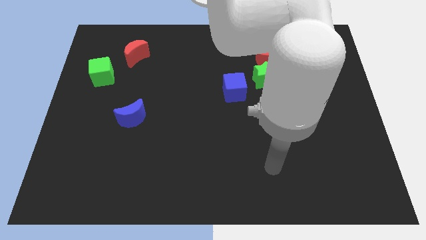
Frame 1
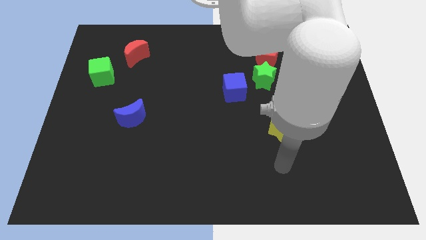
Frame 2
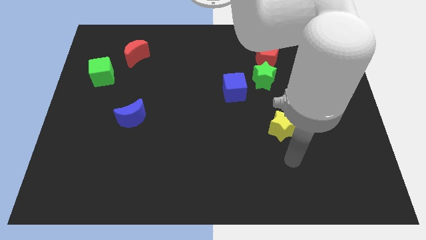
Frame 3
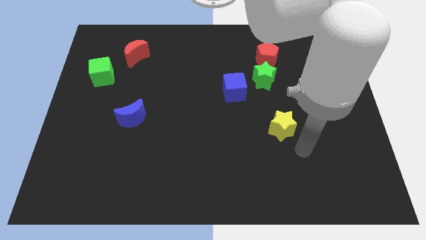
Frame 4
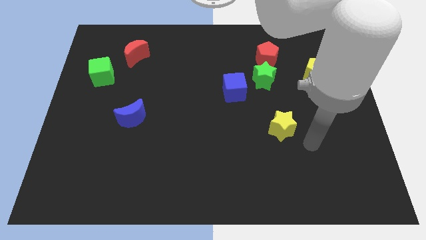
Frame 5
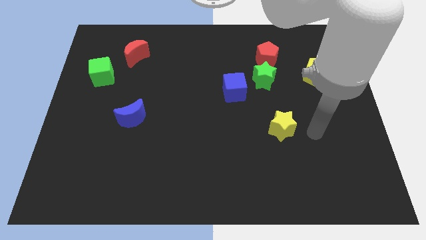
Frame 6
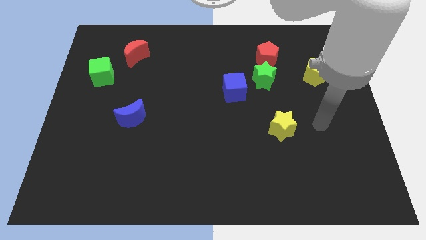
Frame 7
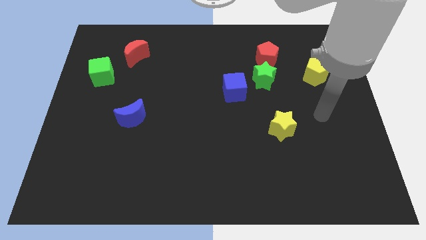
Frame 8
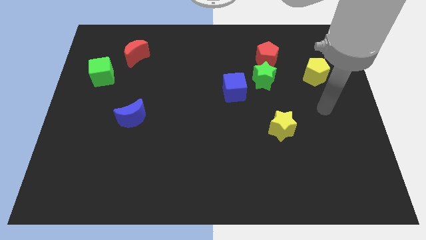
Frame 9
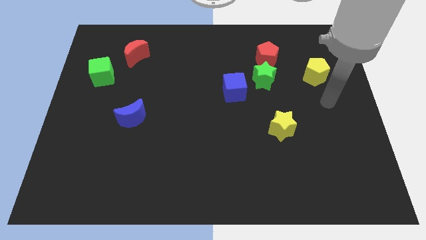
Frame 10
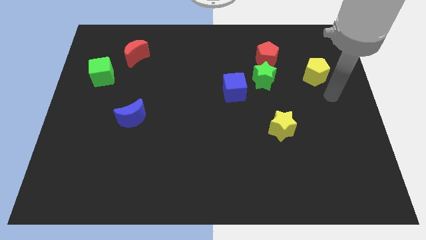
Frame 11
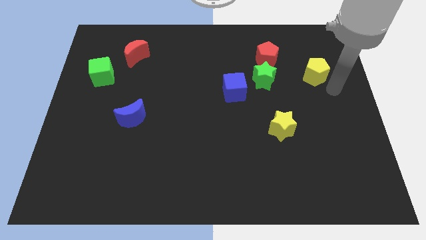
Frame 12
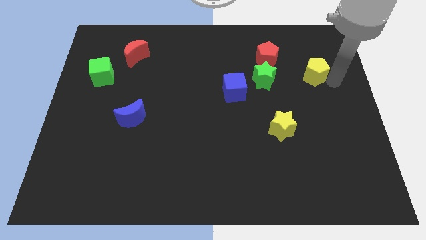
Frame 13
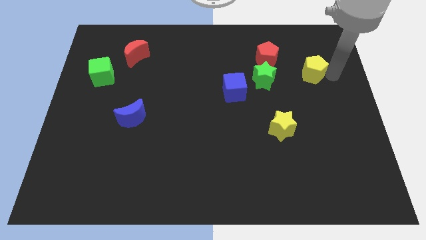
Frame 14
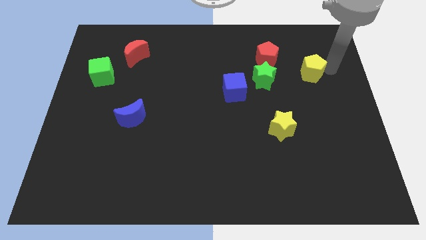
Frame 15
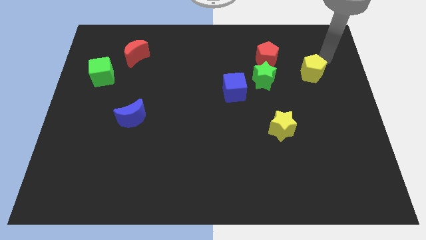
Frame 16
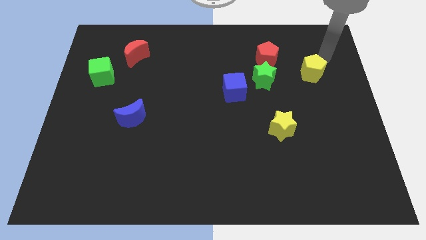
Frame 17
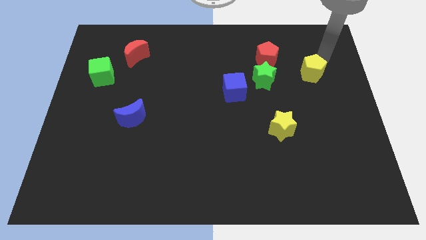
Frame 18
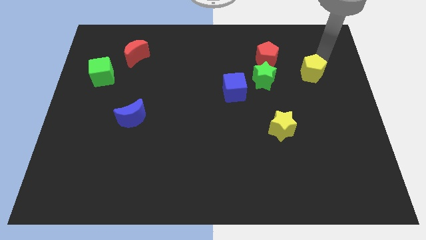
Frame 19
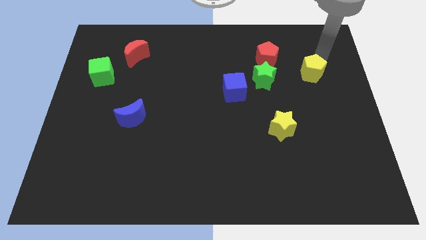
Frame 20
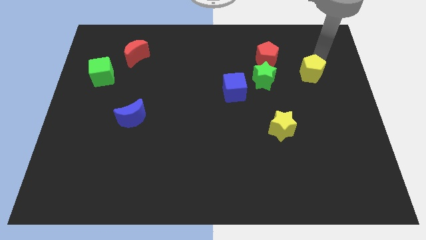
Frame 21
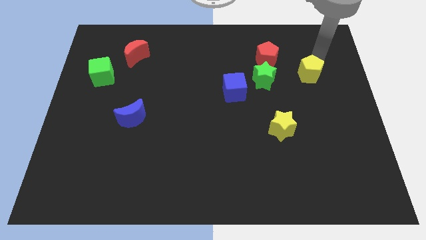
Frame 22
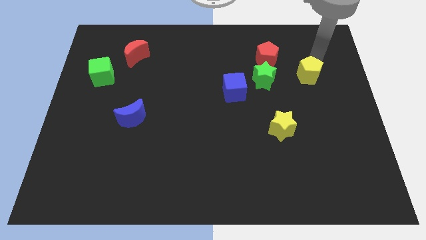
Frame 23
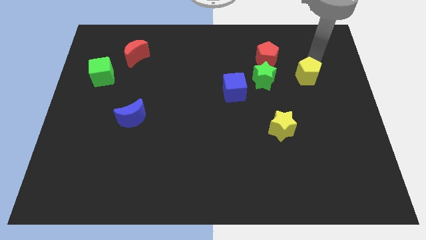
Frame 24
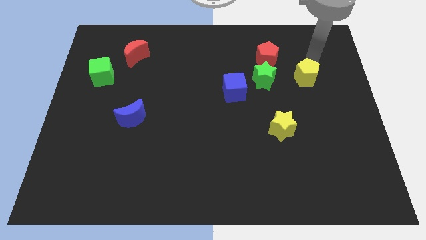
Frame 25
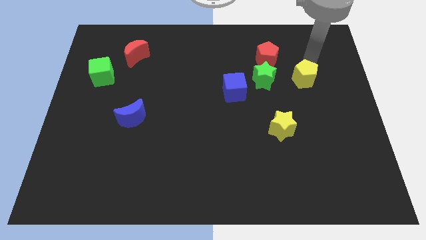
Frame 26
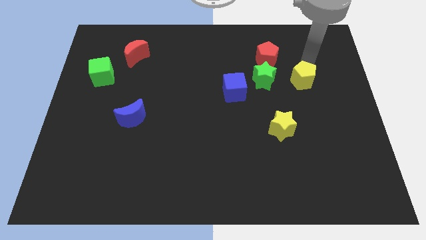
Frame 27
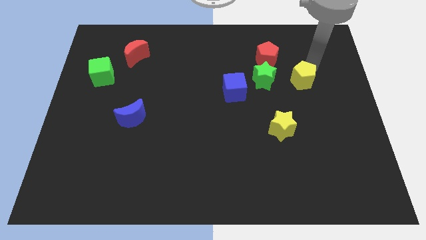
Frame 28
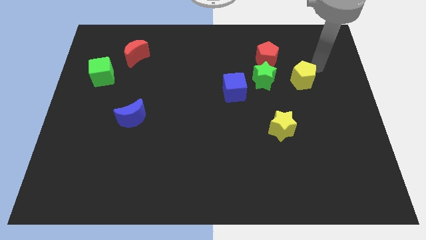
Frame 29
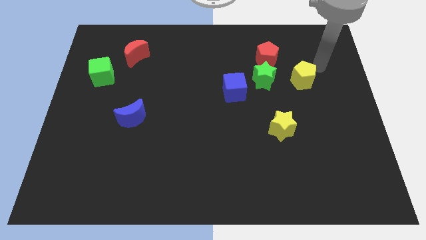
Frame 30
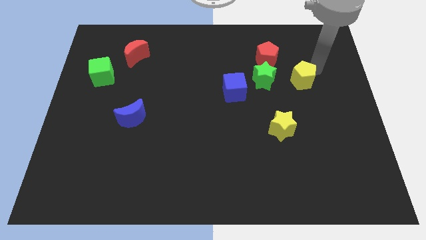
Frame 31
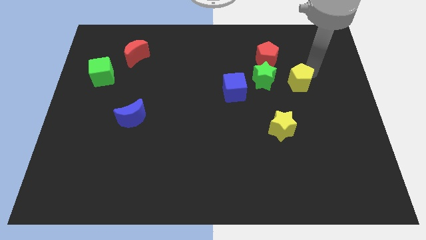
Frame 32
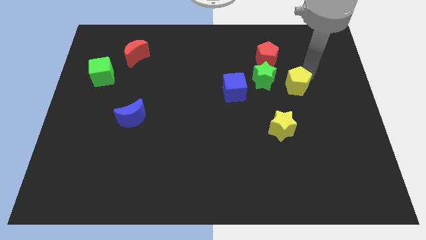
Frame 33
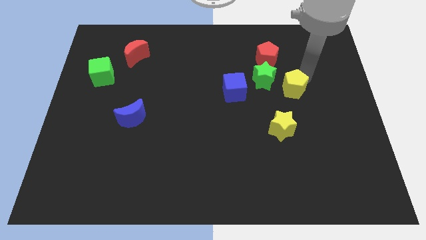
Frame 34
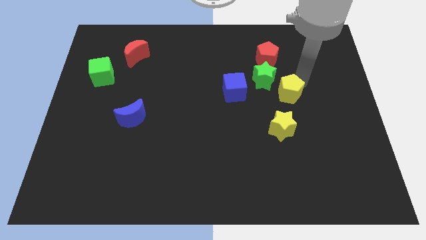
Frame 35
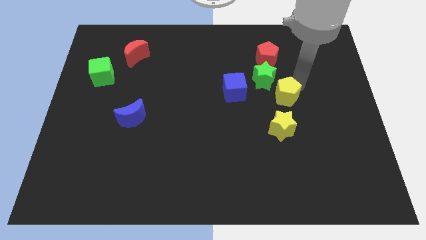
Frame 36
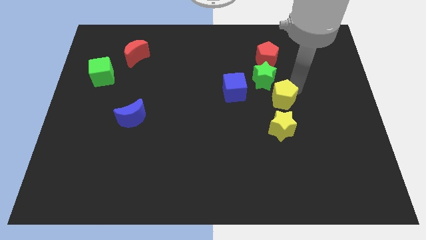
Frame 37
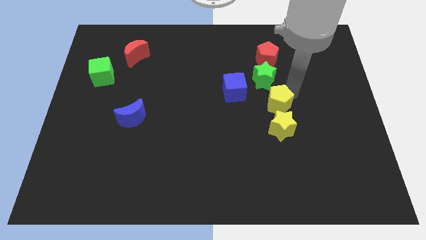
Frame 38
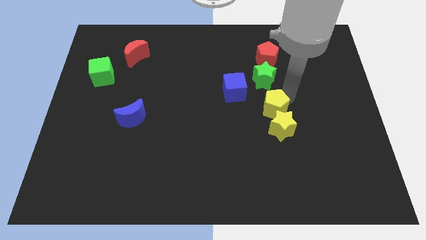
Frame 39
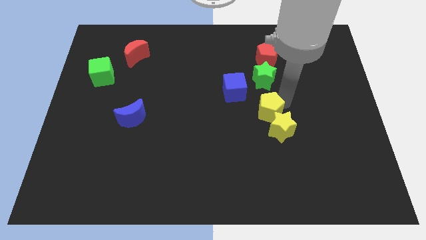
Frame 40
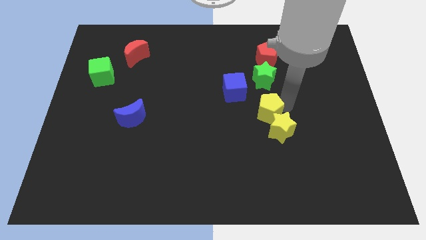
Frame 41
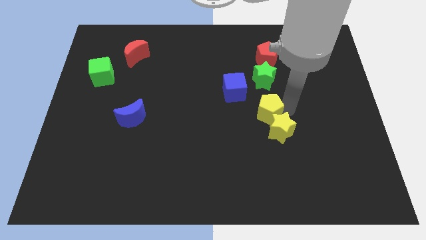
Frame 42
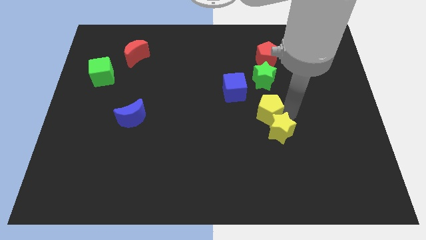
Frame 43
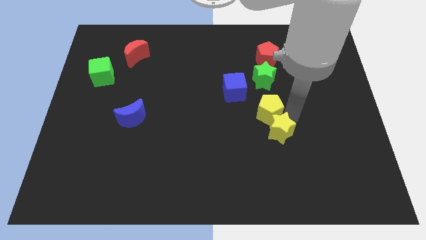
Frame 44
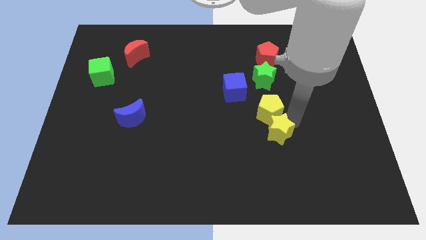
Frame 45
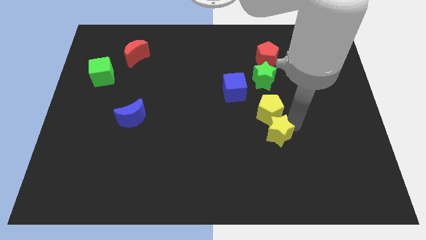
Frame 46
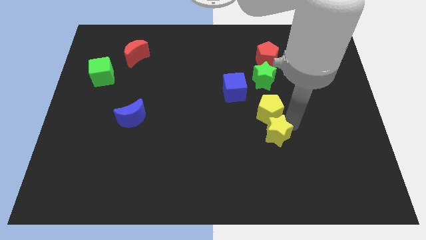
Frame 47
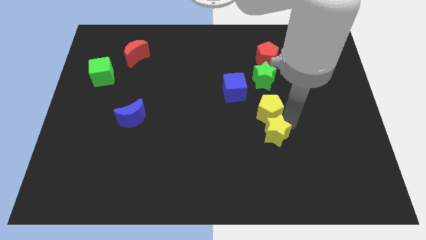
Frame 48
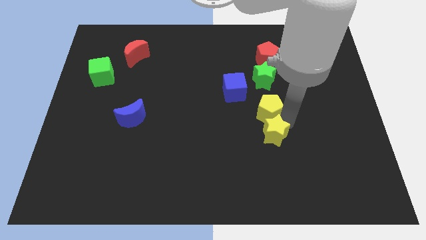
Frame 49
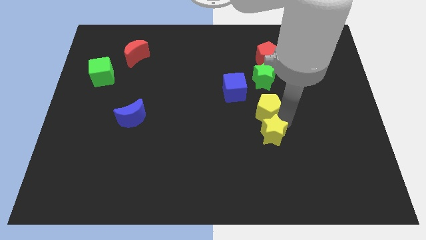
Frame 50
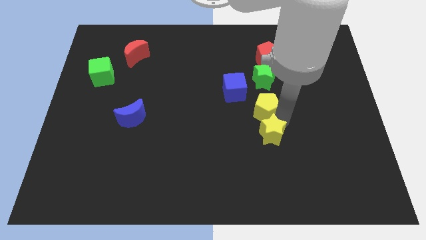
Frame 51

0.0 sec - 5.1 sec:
slide the yellow pentagon to the middle of the board

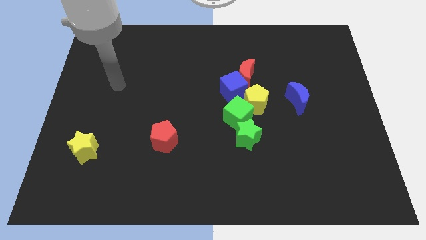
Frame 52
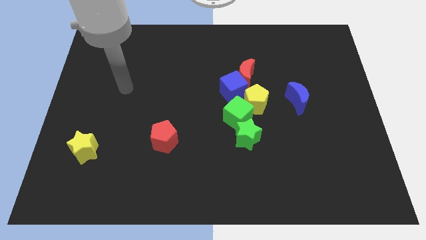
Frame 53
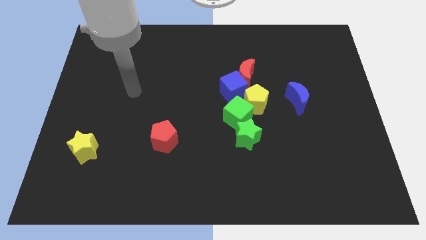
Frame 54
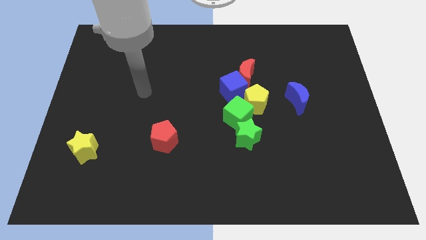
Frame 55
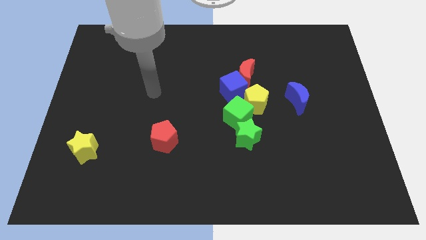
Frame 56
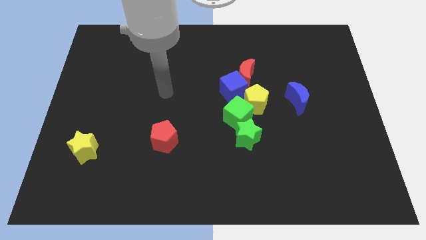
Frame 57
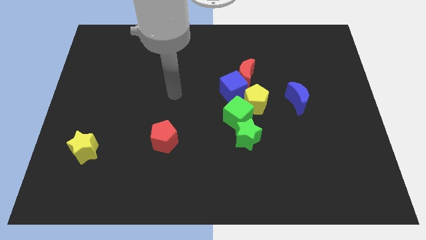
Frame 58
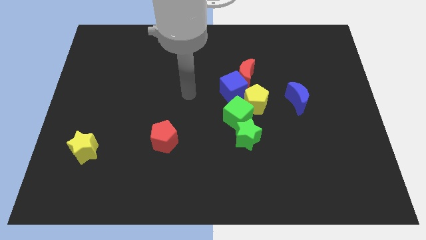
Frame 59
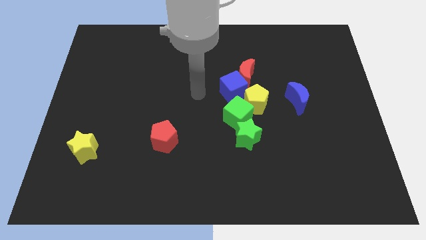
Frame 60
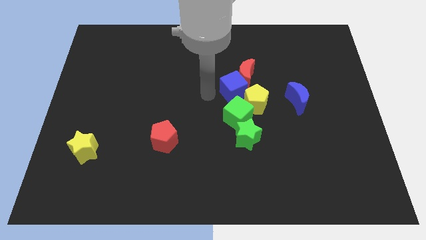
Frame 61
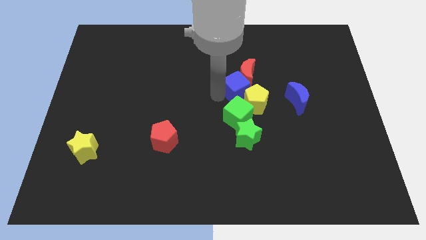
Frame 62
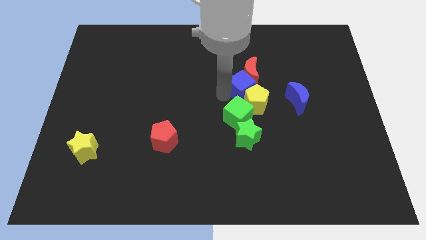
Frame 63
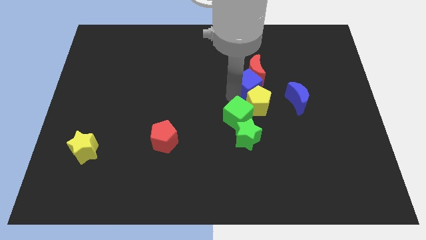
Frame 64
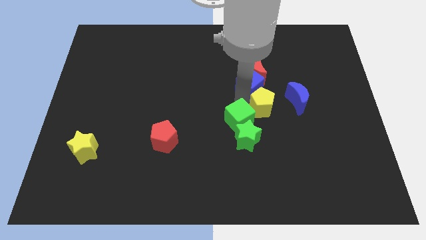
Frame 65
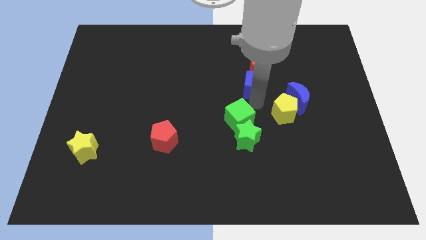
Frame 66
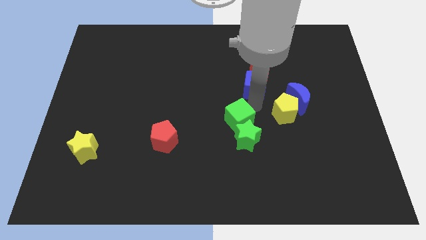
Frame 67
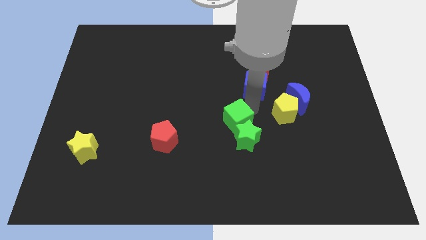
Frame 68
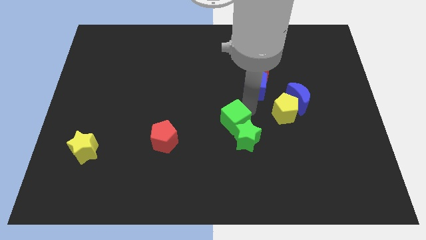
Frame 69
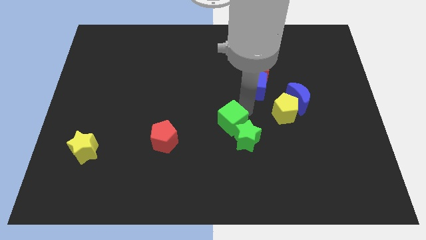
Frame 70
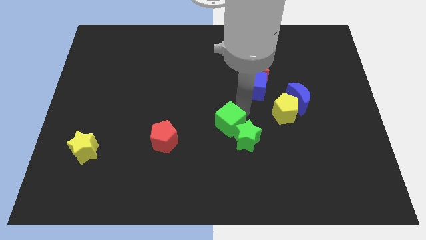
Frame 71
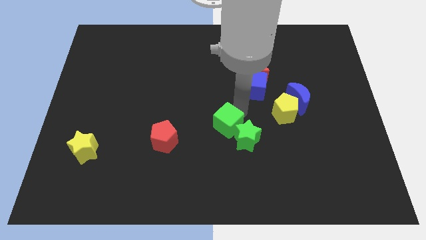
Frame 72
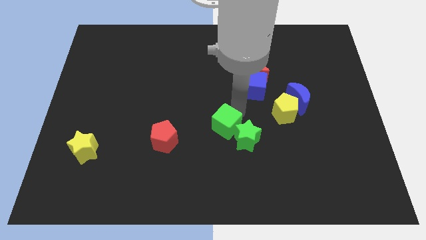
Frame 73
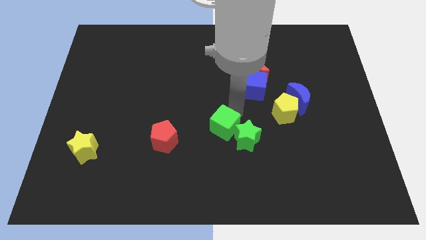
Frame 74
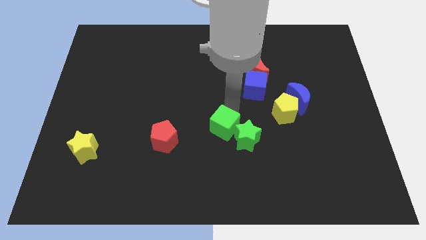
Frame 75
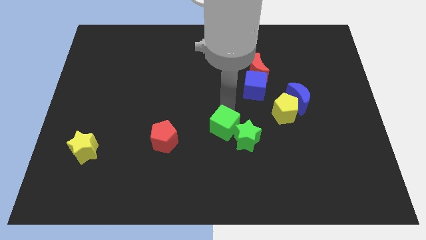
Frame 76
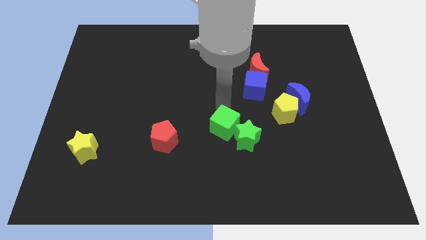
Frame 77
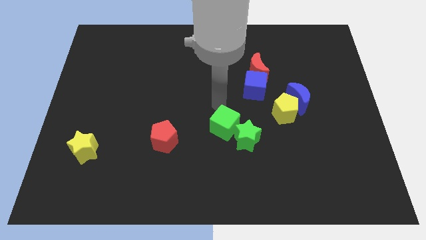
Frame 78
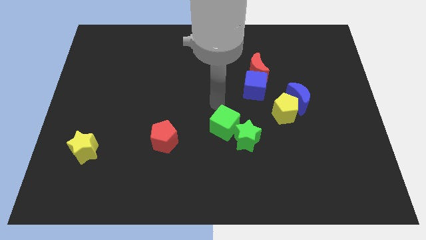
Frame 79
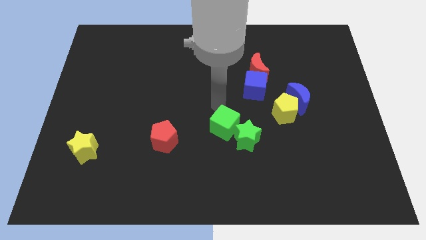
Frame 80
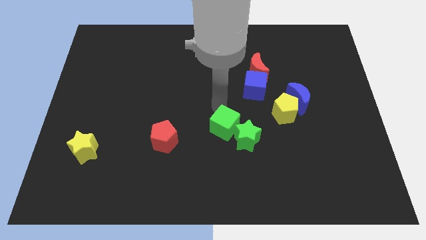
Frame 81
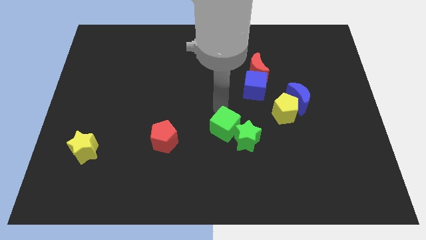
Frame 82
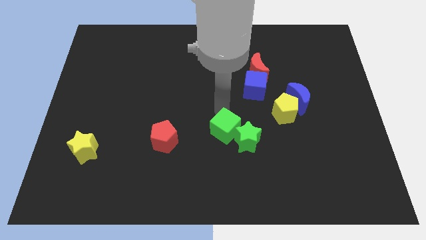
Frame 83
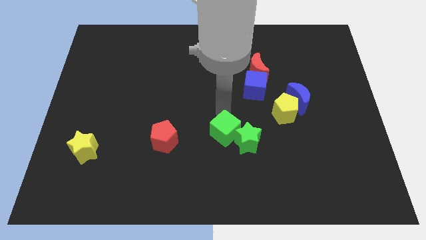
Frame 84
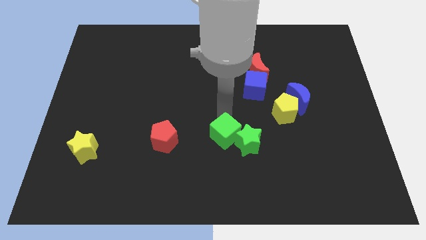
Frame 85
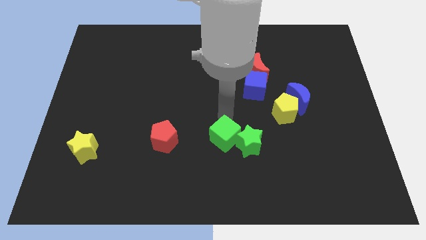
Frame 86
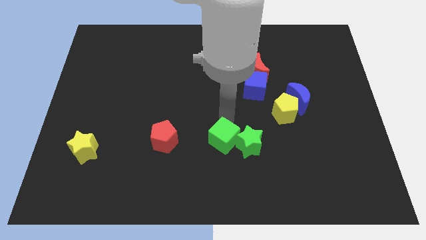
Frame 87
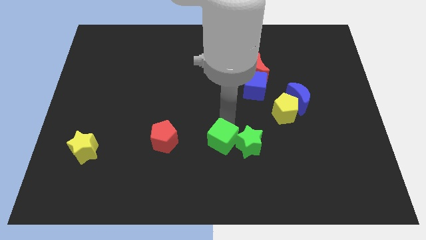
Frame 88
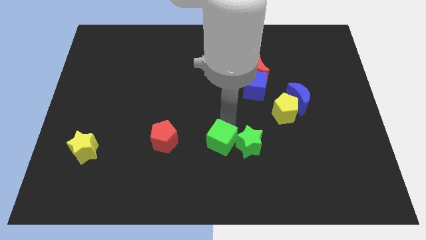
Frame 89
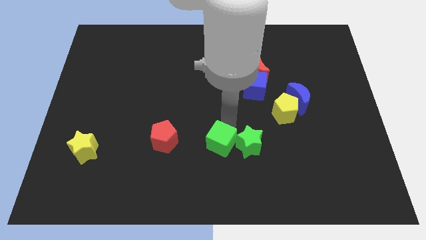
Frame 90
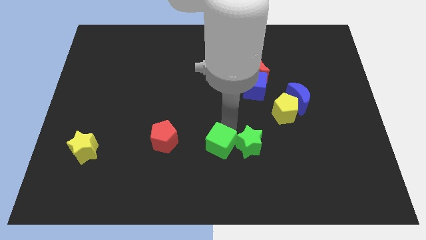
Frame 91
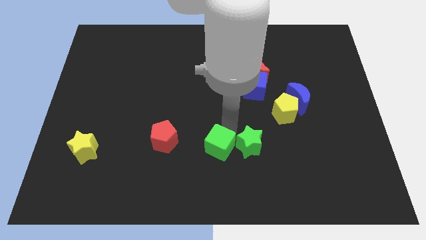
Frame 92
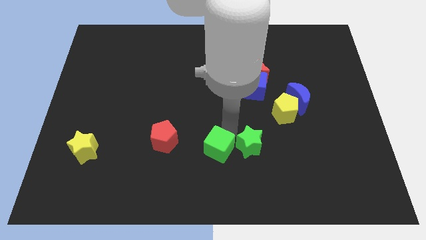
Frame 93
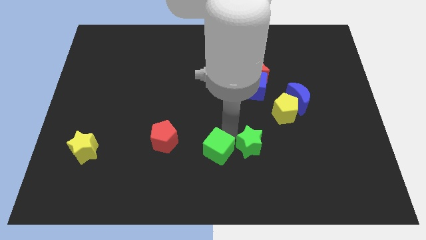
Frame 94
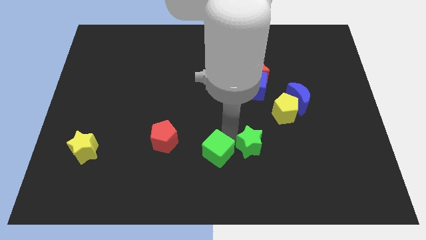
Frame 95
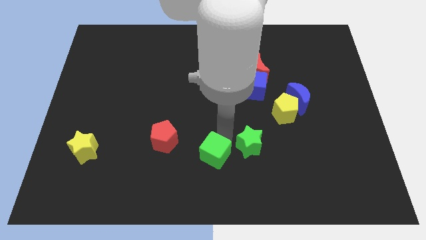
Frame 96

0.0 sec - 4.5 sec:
move the green cube to the bottom
